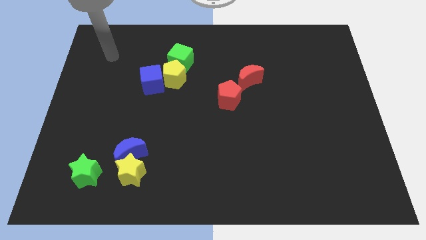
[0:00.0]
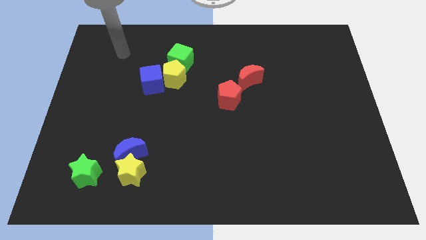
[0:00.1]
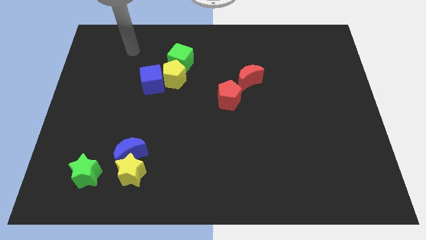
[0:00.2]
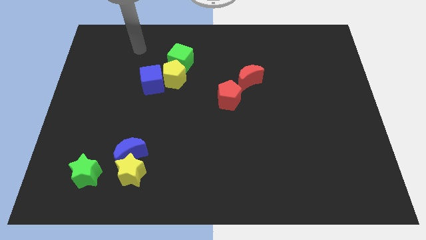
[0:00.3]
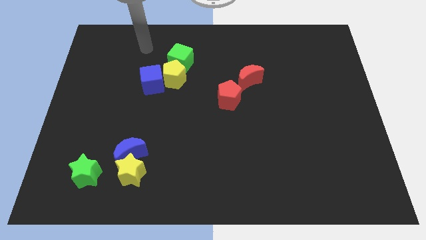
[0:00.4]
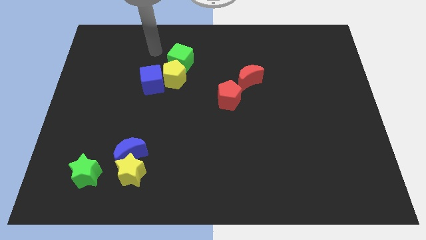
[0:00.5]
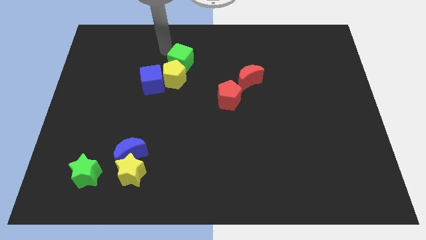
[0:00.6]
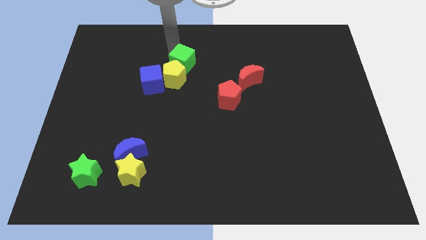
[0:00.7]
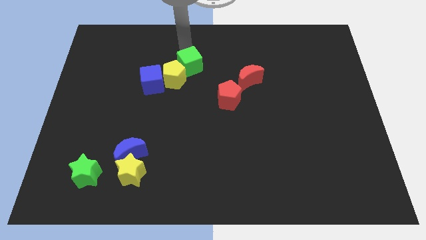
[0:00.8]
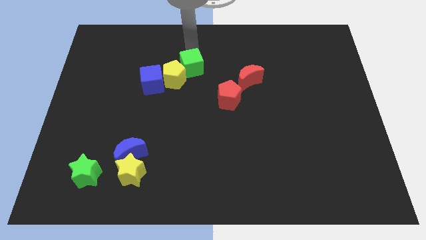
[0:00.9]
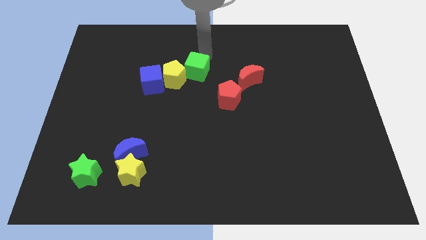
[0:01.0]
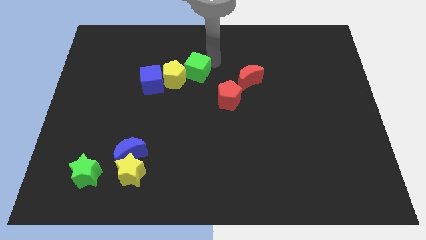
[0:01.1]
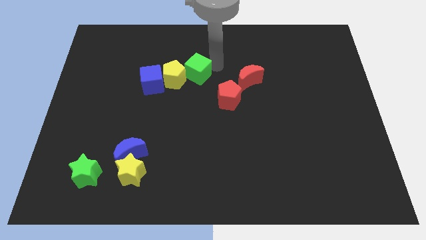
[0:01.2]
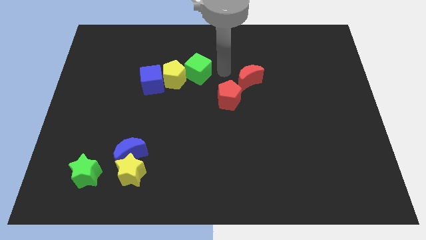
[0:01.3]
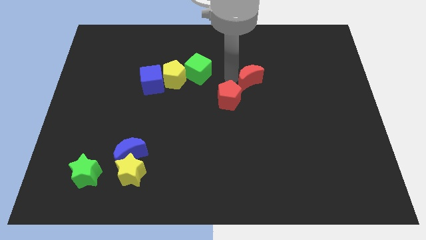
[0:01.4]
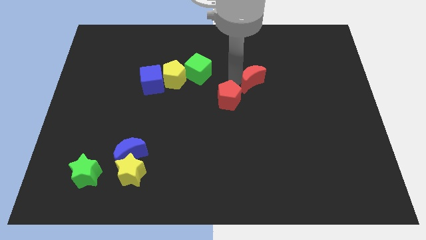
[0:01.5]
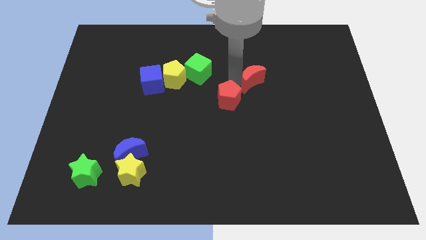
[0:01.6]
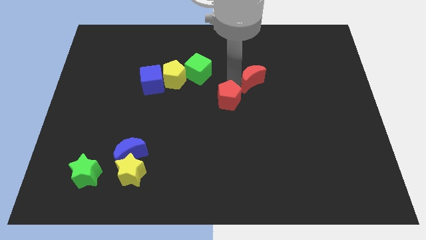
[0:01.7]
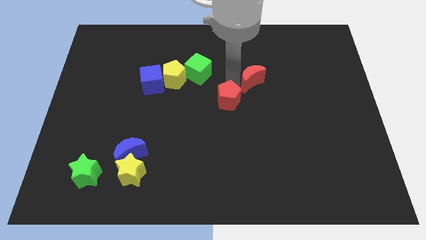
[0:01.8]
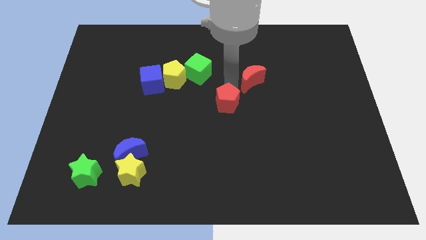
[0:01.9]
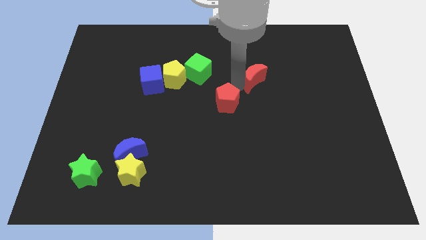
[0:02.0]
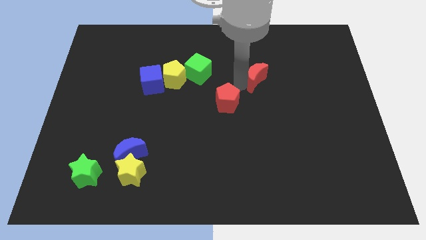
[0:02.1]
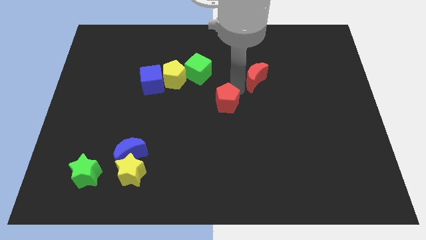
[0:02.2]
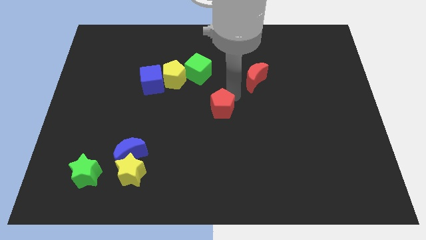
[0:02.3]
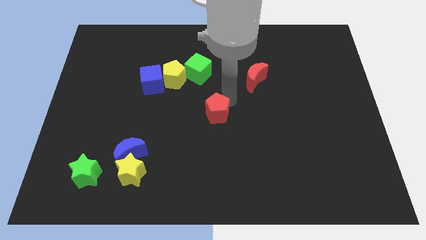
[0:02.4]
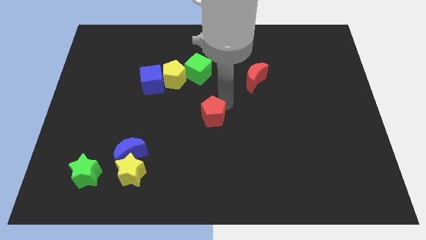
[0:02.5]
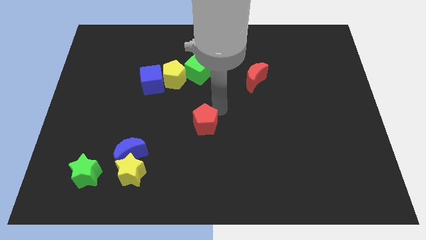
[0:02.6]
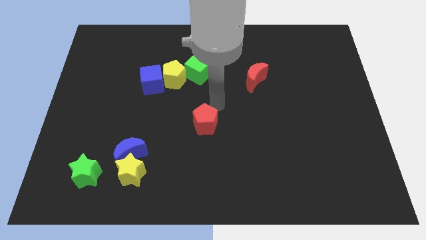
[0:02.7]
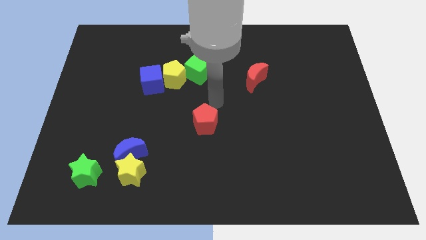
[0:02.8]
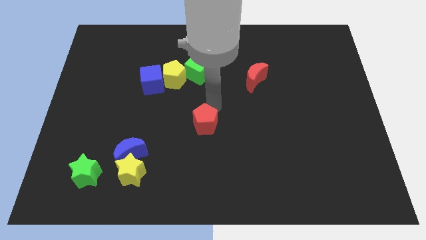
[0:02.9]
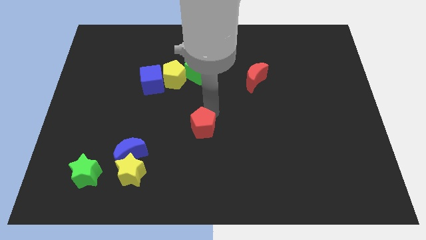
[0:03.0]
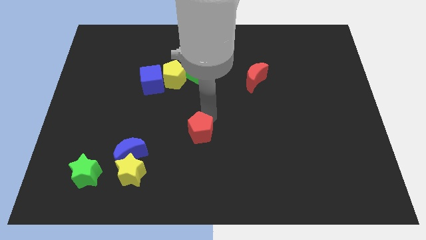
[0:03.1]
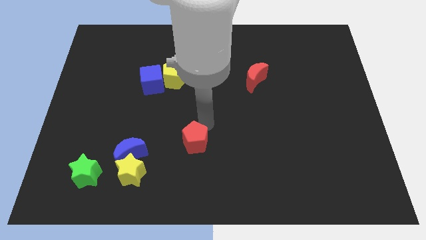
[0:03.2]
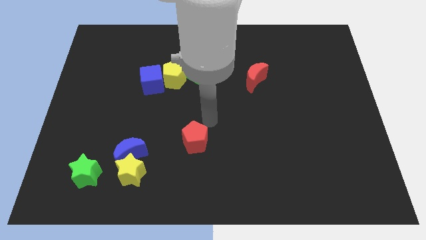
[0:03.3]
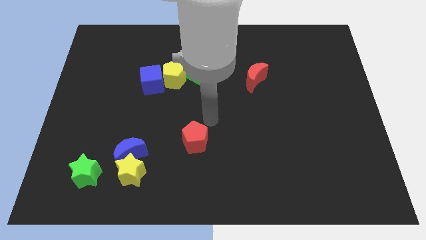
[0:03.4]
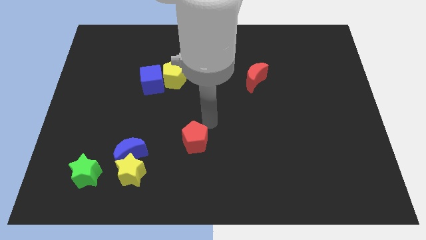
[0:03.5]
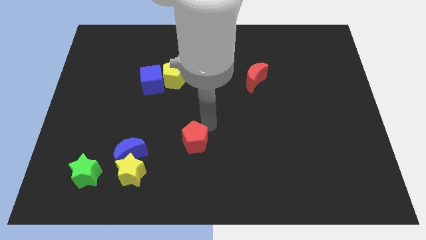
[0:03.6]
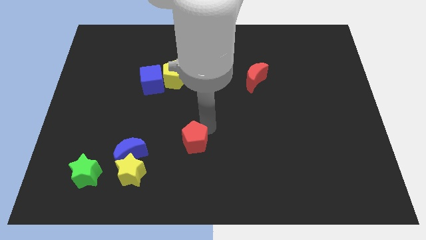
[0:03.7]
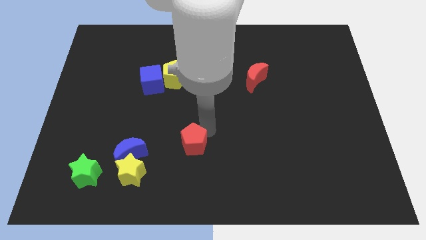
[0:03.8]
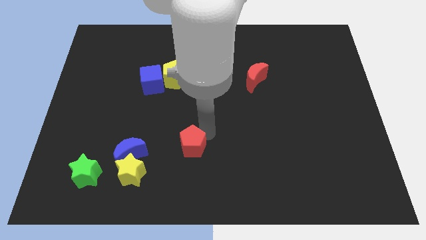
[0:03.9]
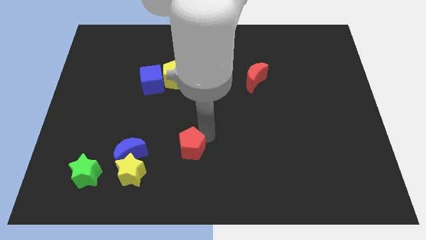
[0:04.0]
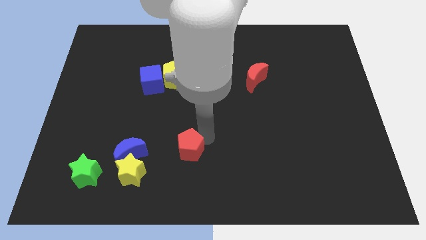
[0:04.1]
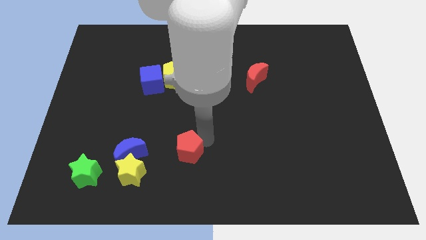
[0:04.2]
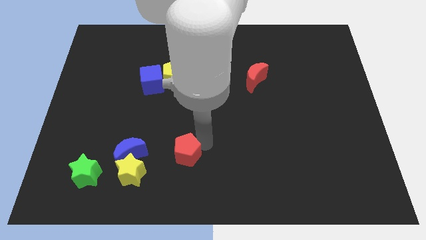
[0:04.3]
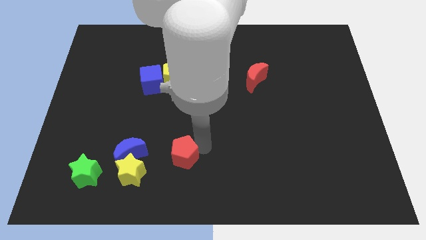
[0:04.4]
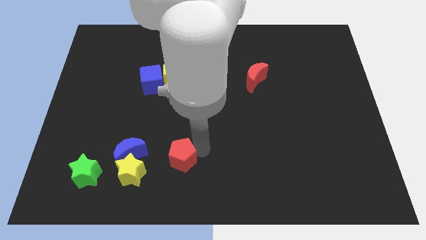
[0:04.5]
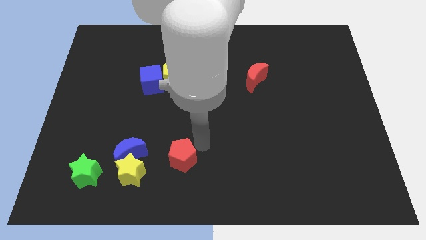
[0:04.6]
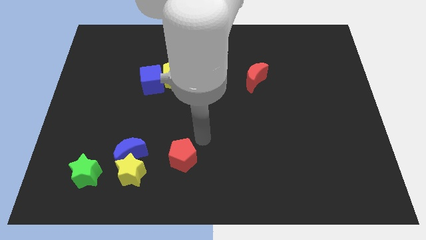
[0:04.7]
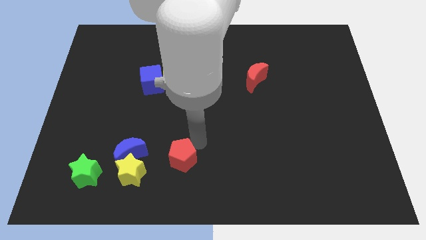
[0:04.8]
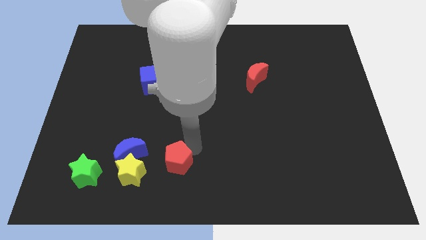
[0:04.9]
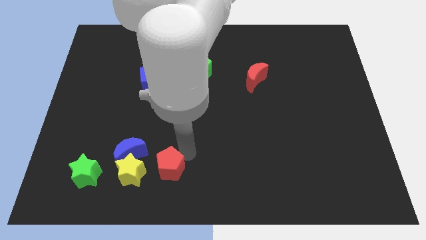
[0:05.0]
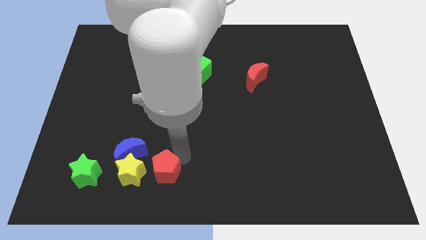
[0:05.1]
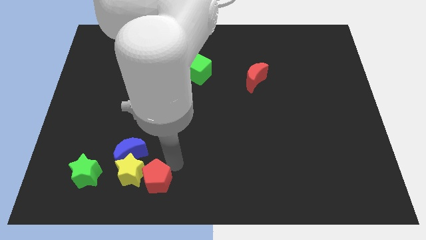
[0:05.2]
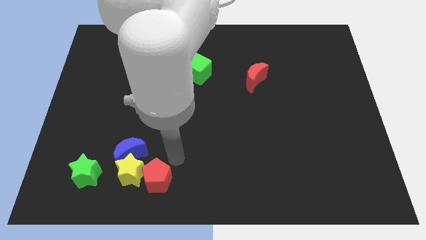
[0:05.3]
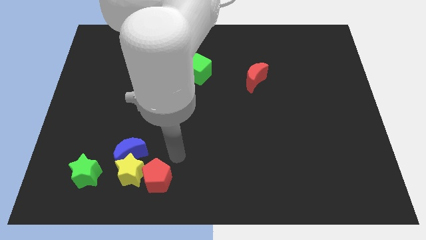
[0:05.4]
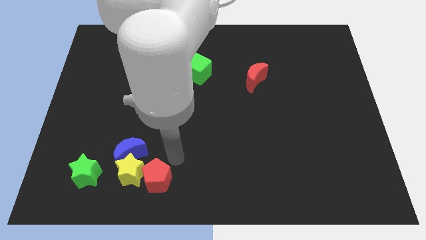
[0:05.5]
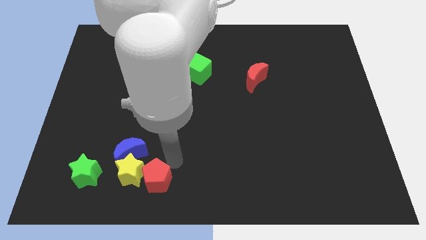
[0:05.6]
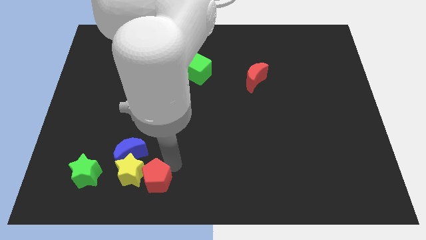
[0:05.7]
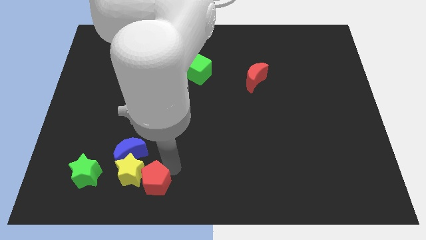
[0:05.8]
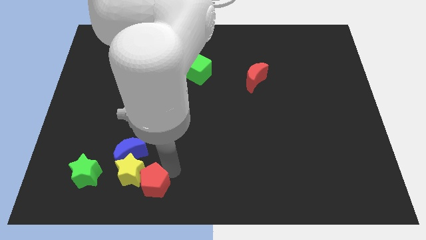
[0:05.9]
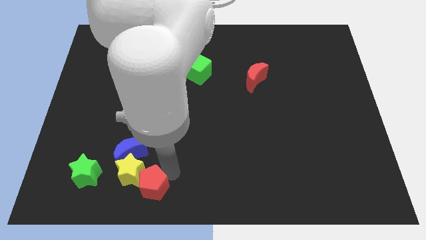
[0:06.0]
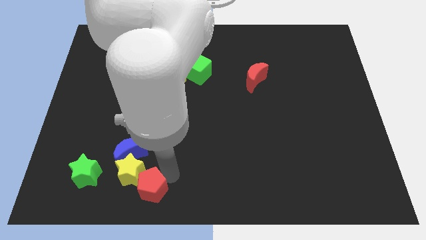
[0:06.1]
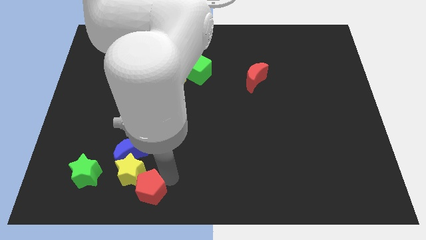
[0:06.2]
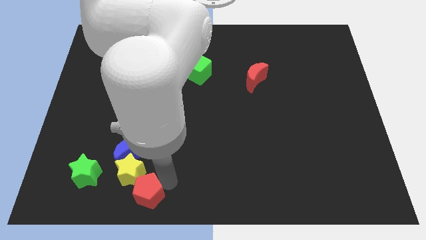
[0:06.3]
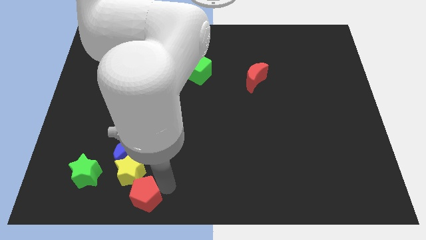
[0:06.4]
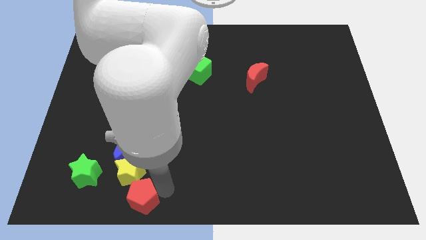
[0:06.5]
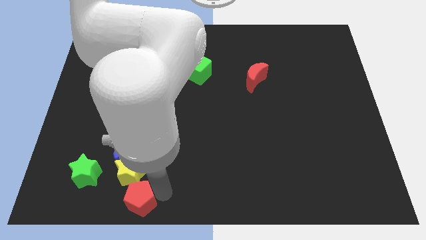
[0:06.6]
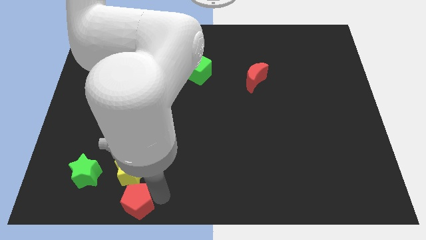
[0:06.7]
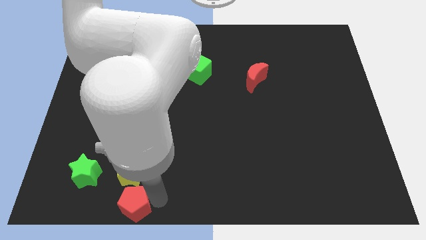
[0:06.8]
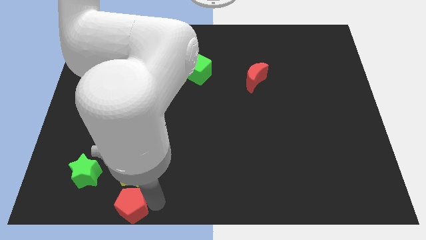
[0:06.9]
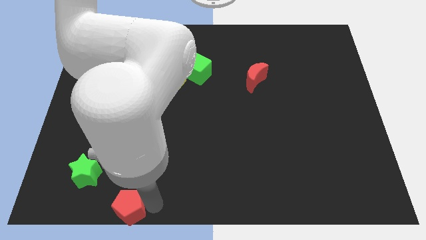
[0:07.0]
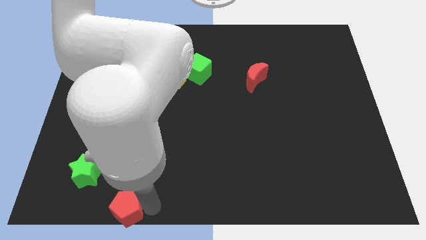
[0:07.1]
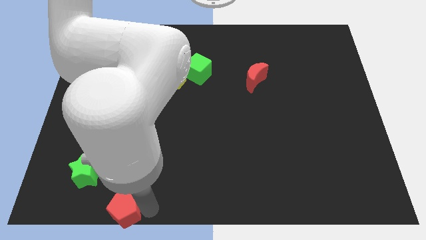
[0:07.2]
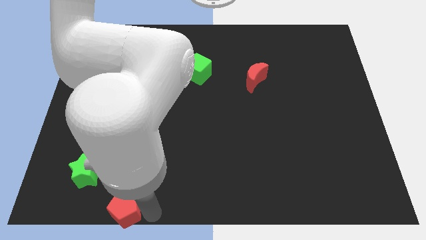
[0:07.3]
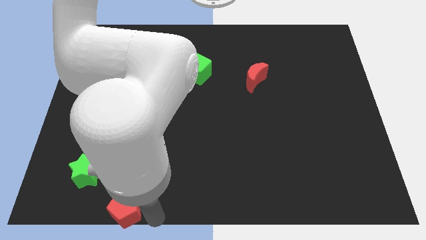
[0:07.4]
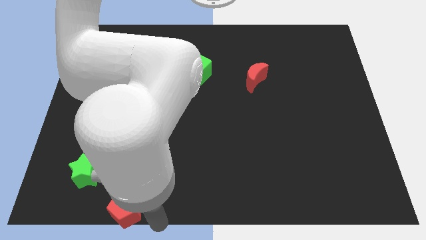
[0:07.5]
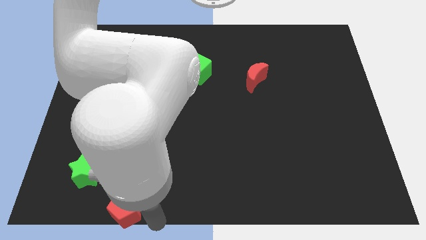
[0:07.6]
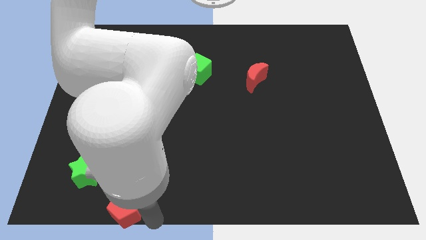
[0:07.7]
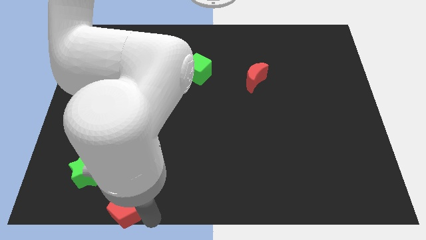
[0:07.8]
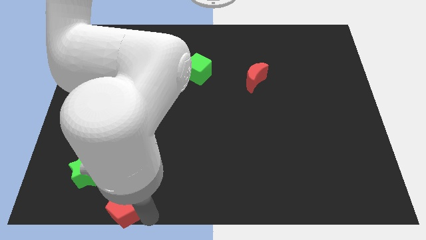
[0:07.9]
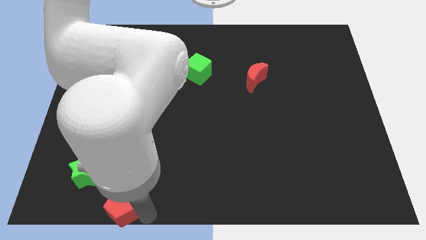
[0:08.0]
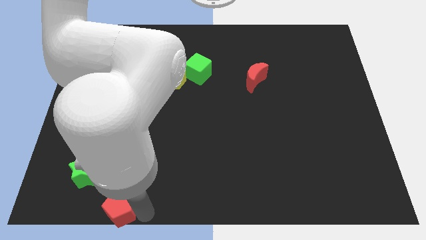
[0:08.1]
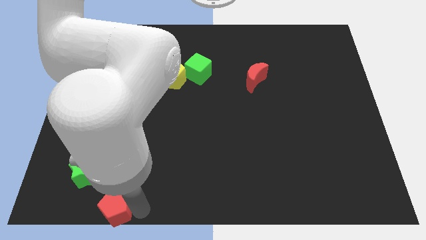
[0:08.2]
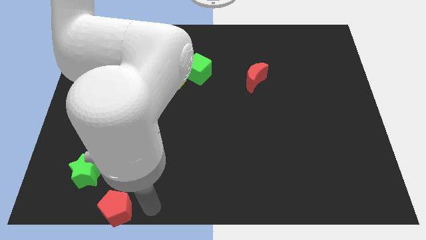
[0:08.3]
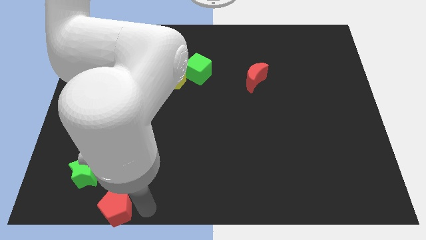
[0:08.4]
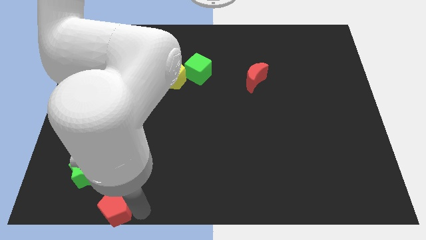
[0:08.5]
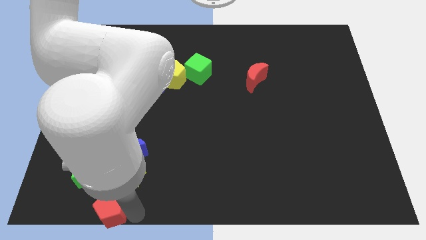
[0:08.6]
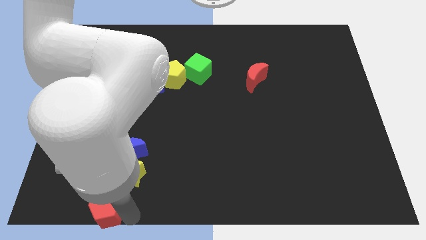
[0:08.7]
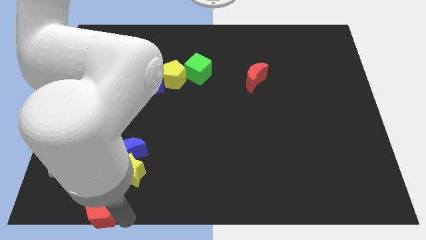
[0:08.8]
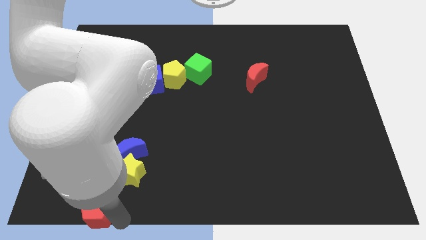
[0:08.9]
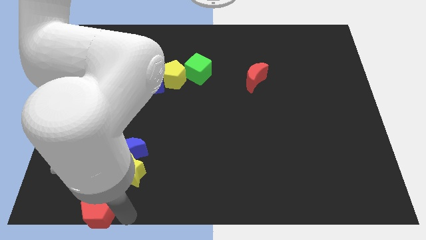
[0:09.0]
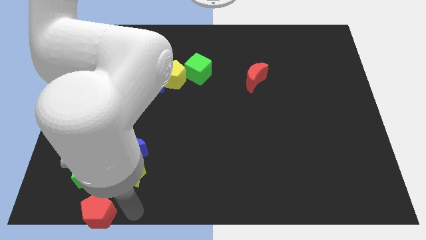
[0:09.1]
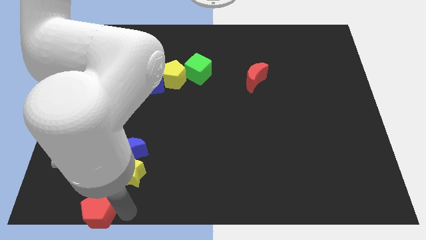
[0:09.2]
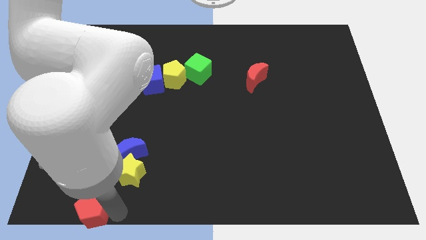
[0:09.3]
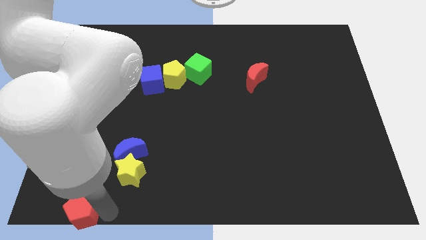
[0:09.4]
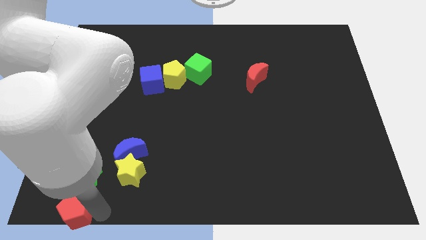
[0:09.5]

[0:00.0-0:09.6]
push the red pentagon to the lower left corner
